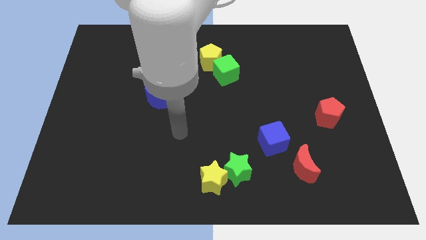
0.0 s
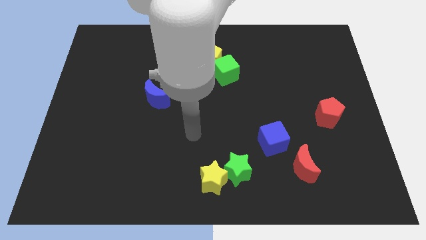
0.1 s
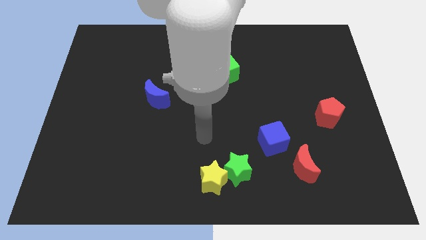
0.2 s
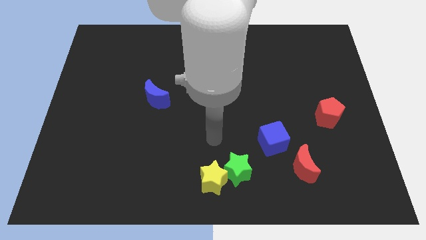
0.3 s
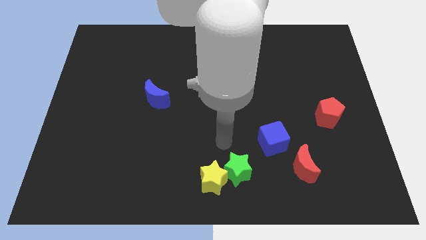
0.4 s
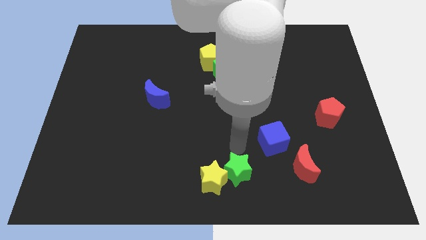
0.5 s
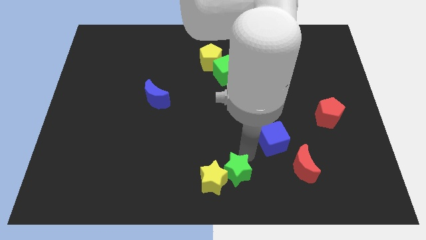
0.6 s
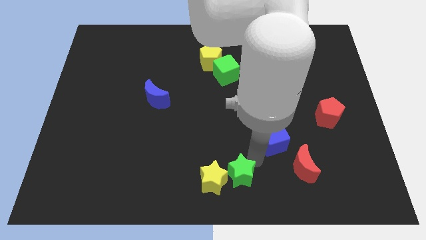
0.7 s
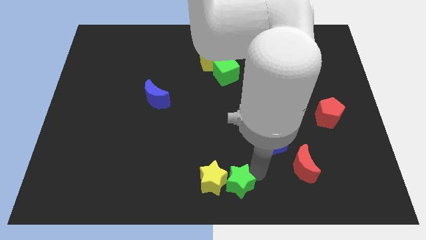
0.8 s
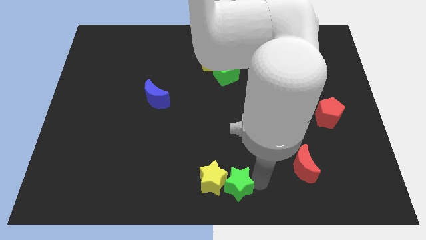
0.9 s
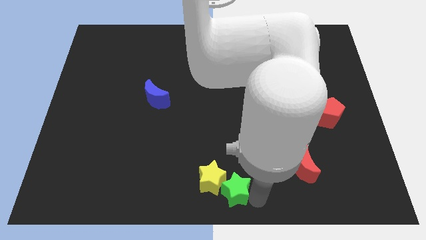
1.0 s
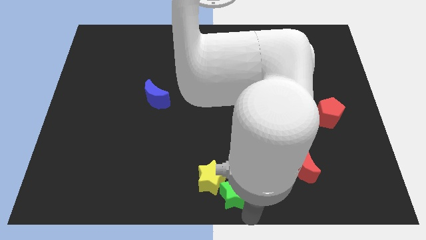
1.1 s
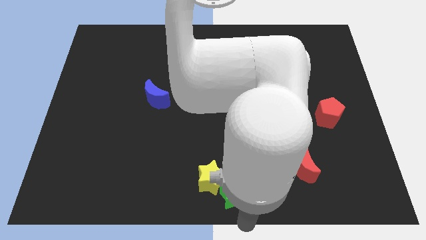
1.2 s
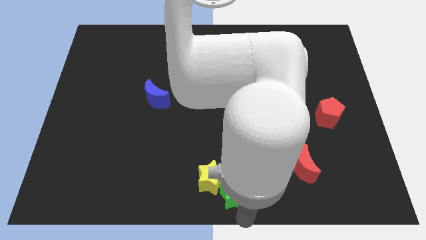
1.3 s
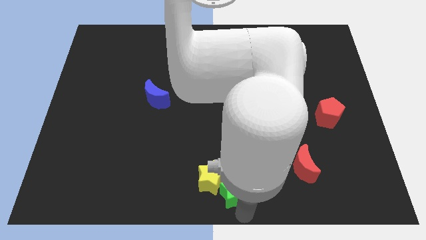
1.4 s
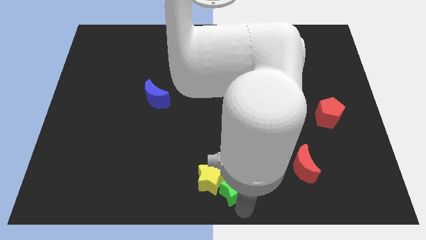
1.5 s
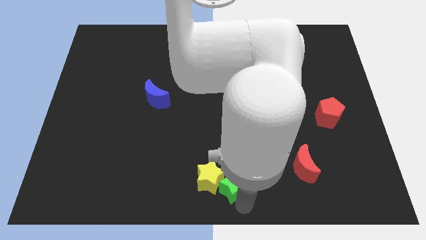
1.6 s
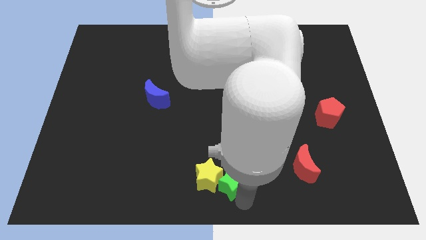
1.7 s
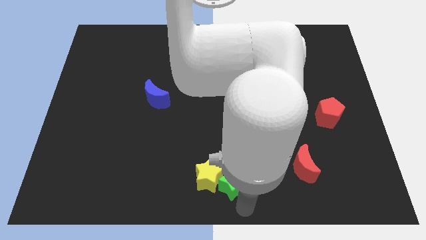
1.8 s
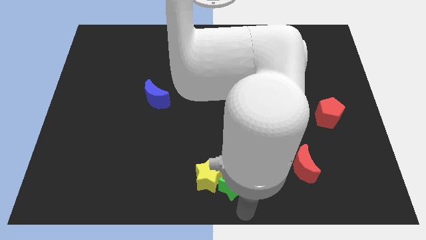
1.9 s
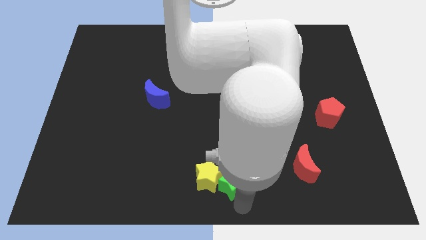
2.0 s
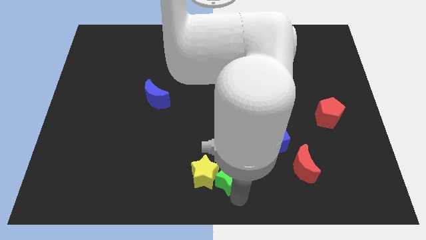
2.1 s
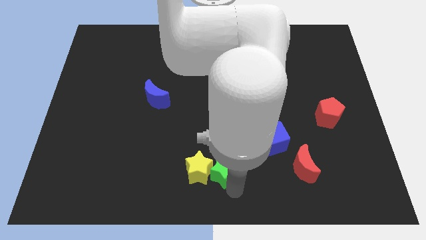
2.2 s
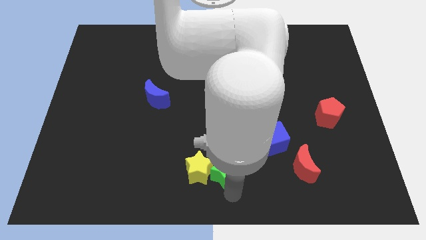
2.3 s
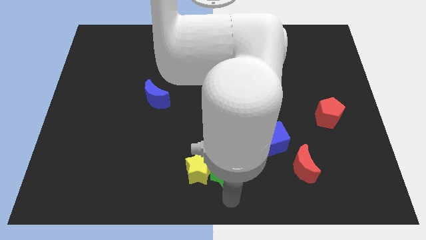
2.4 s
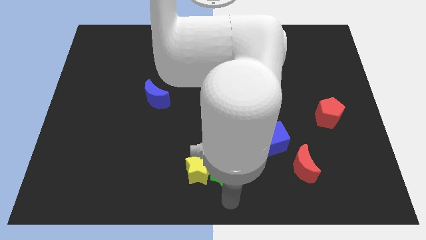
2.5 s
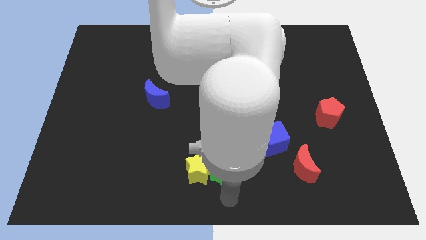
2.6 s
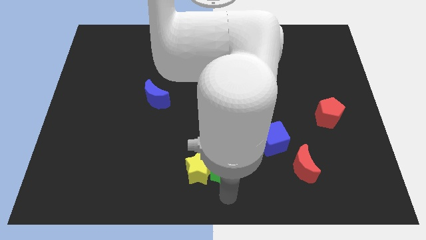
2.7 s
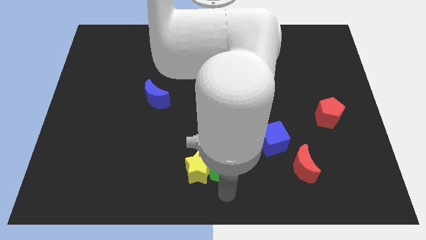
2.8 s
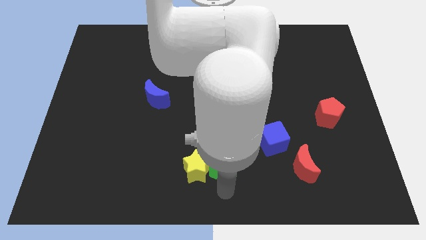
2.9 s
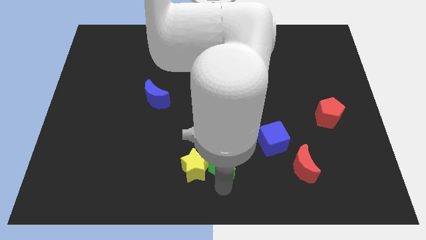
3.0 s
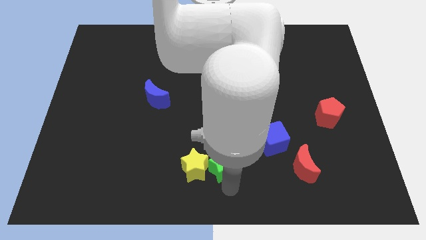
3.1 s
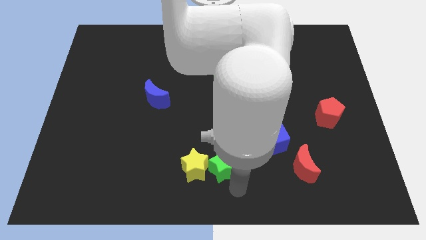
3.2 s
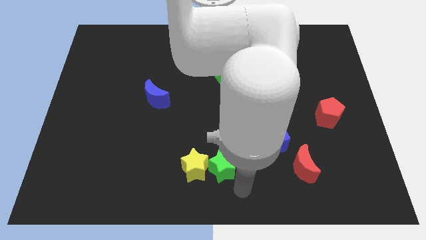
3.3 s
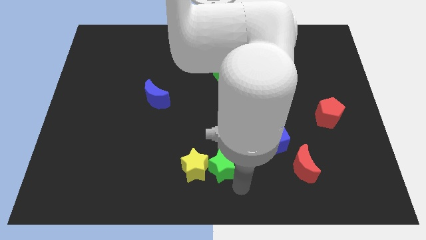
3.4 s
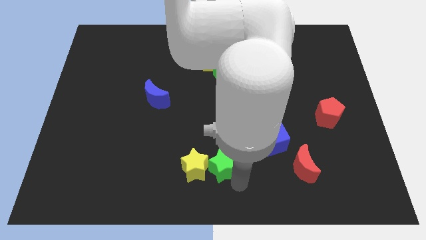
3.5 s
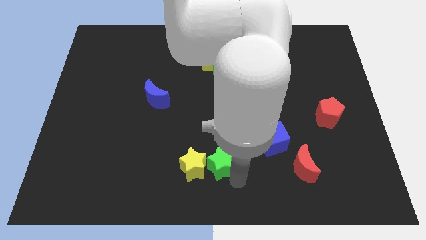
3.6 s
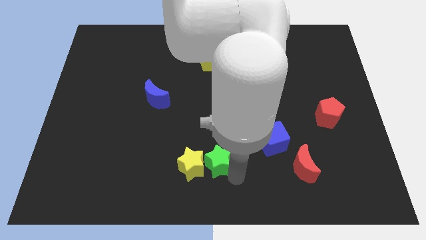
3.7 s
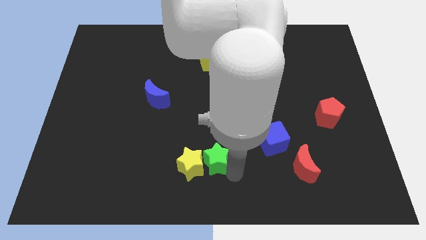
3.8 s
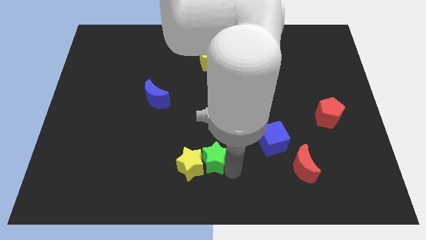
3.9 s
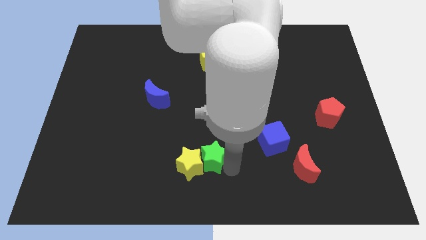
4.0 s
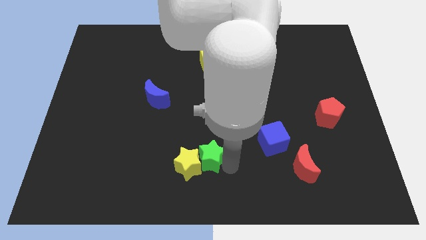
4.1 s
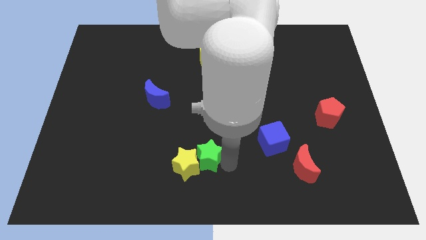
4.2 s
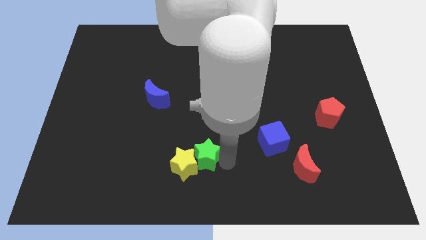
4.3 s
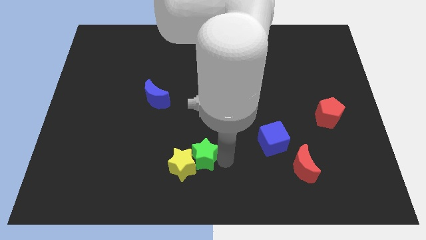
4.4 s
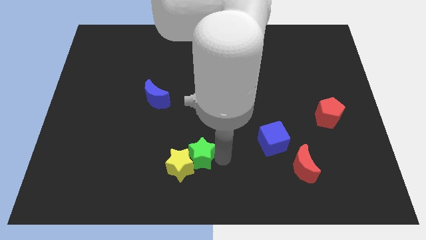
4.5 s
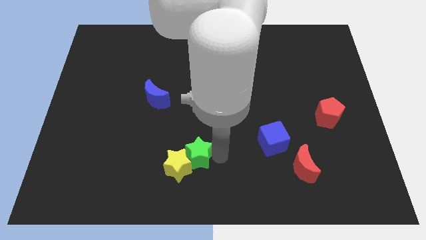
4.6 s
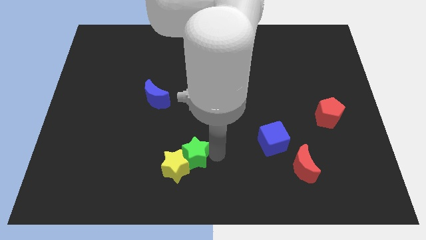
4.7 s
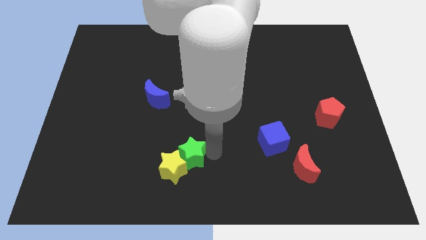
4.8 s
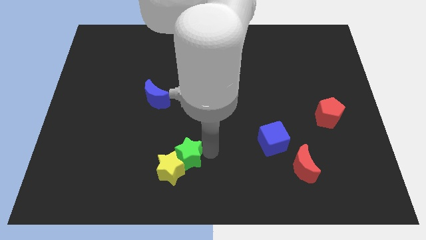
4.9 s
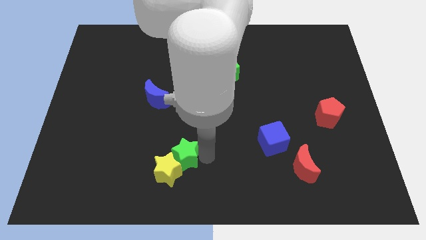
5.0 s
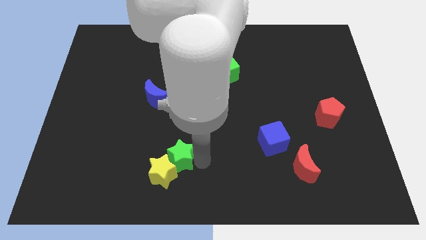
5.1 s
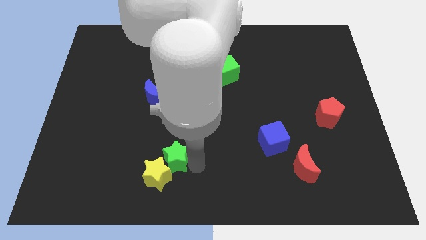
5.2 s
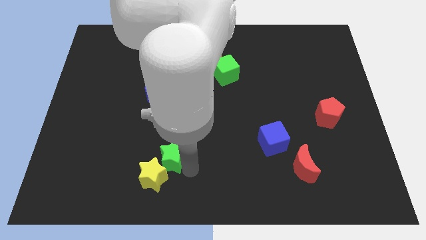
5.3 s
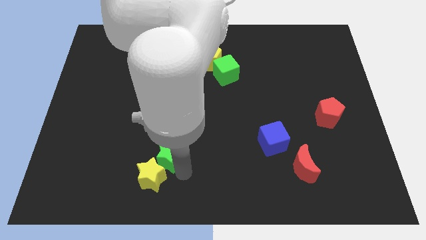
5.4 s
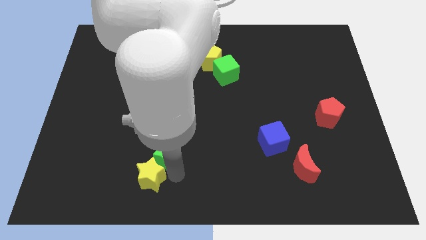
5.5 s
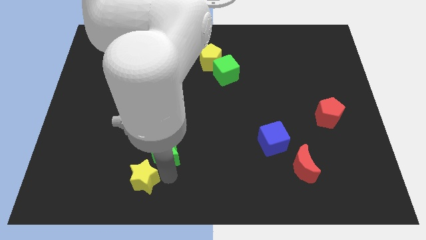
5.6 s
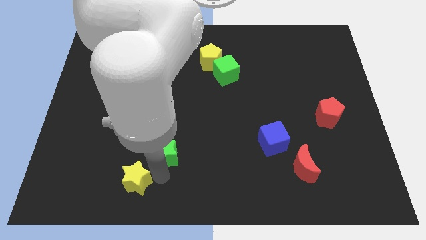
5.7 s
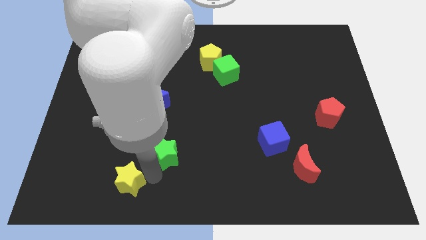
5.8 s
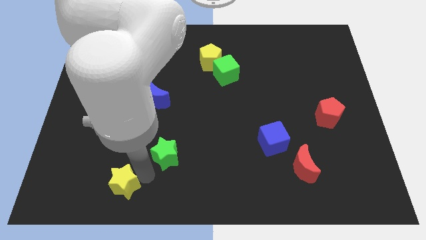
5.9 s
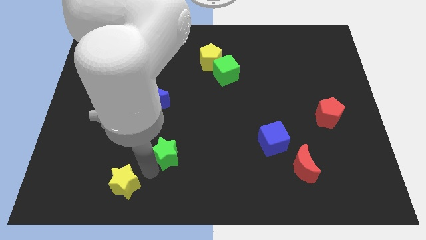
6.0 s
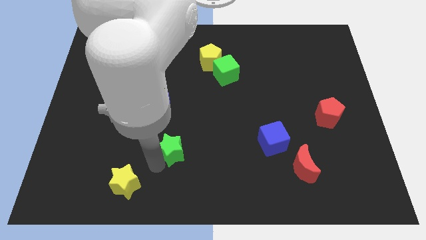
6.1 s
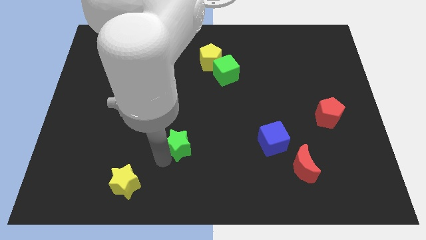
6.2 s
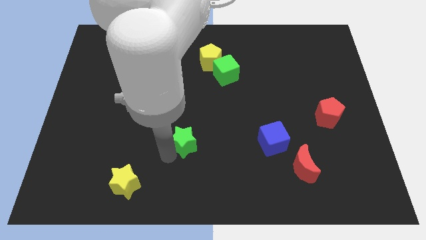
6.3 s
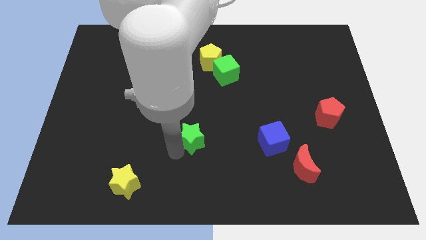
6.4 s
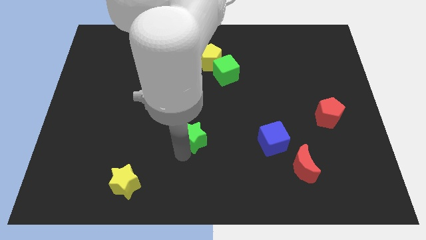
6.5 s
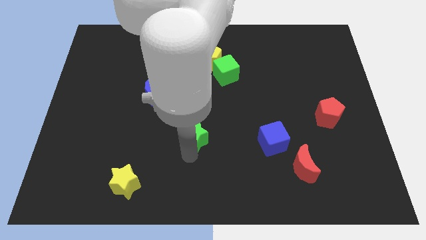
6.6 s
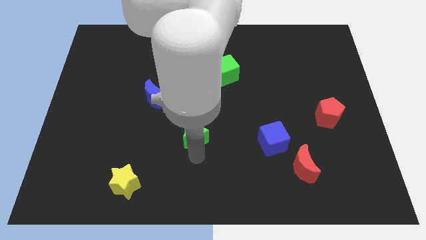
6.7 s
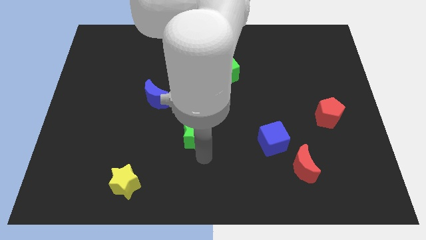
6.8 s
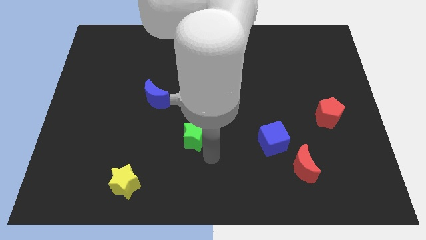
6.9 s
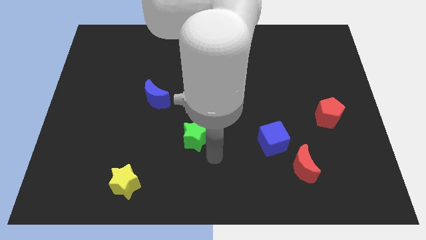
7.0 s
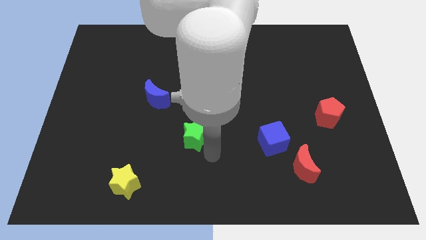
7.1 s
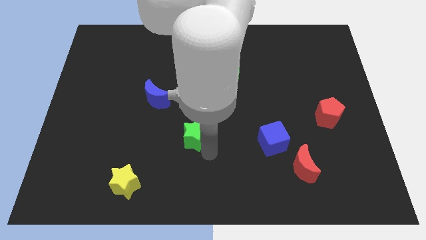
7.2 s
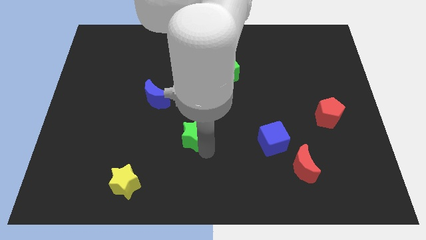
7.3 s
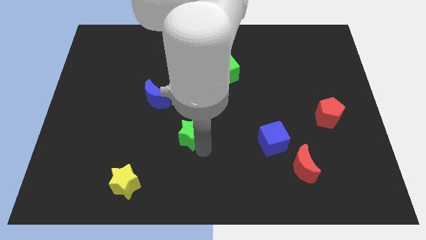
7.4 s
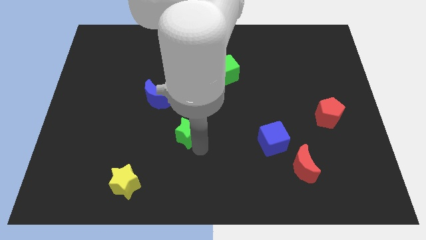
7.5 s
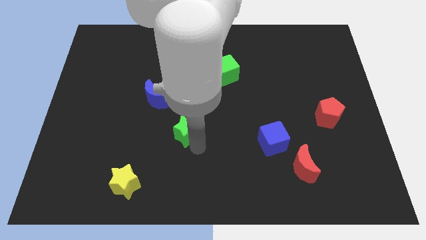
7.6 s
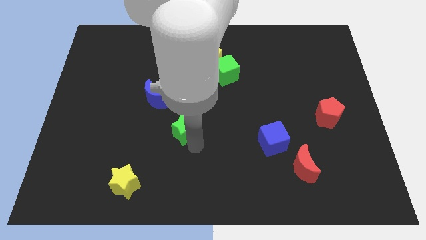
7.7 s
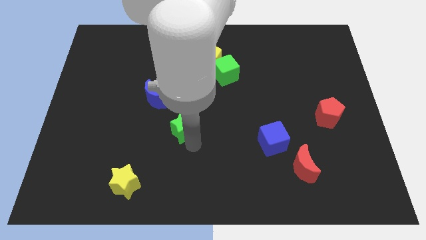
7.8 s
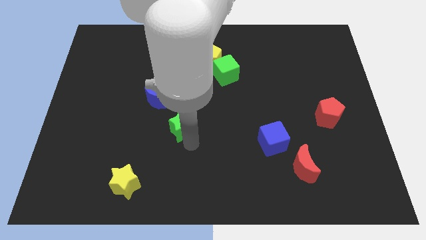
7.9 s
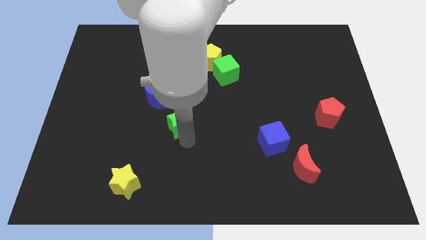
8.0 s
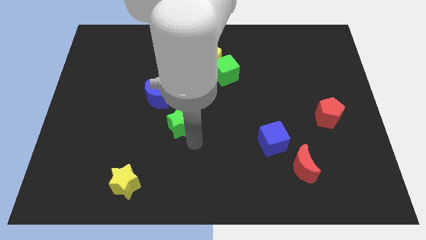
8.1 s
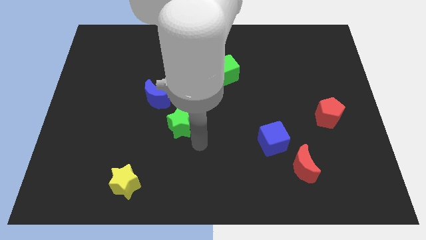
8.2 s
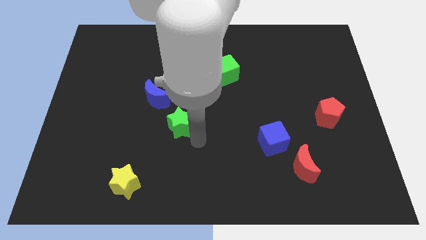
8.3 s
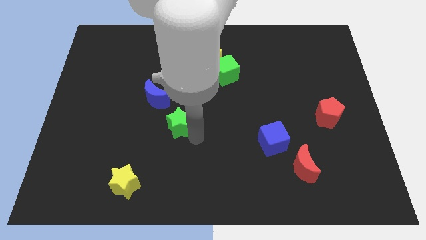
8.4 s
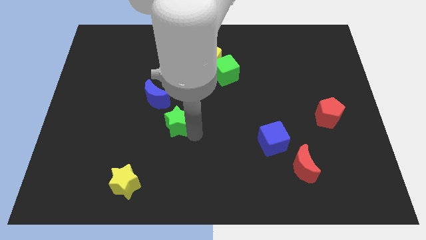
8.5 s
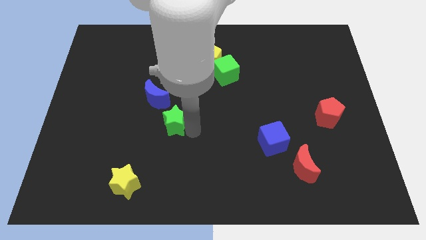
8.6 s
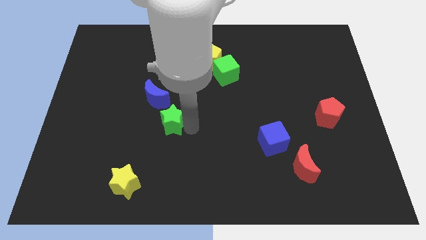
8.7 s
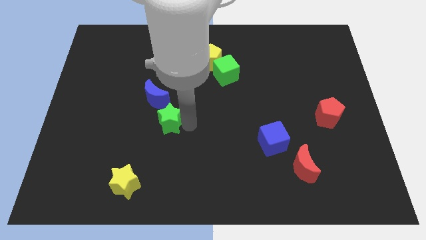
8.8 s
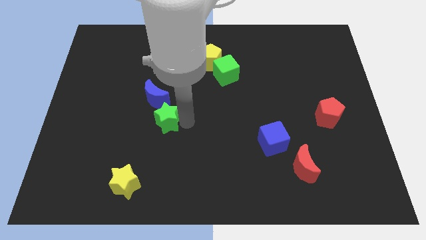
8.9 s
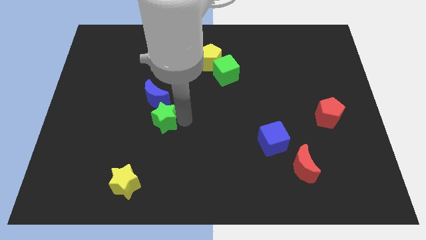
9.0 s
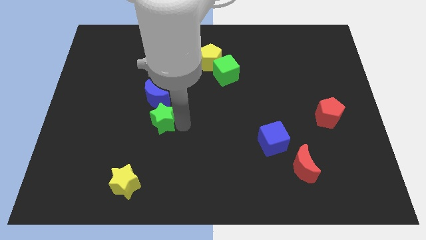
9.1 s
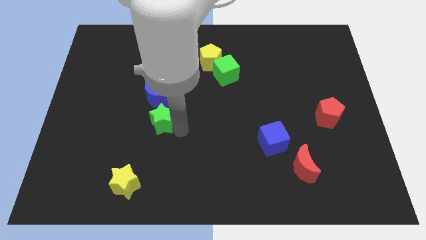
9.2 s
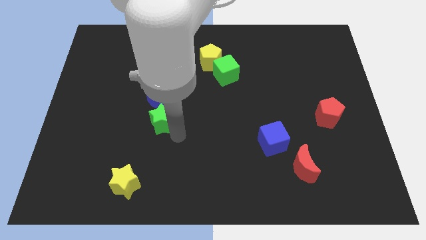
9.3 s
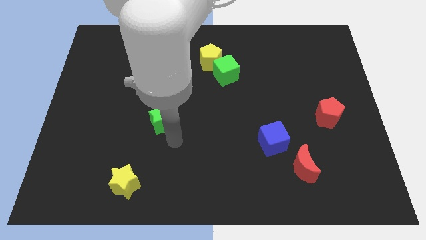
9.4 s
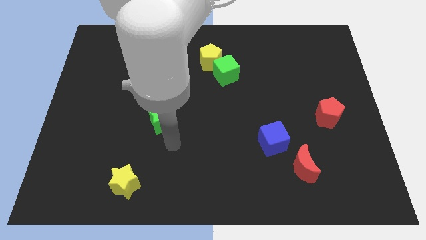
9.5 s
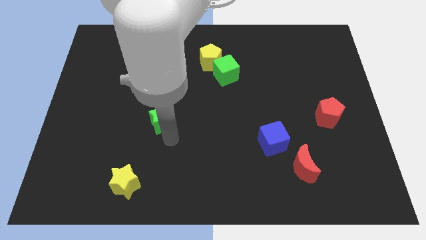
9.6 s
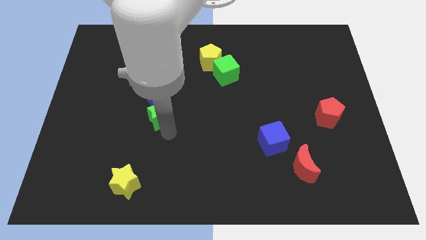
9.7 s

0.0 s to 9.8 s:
slide the green star to the blue moon
